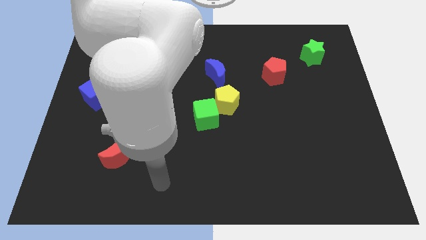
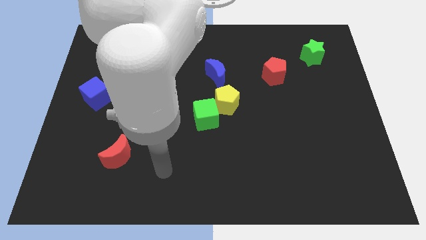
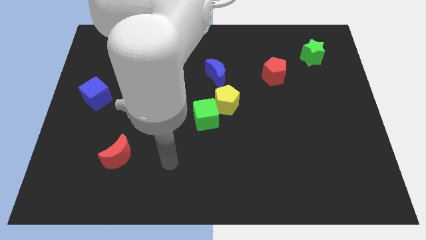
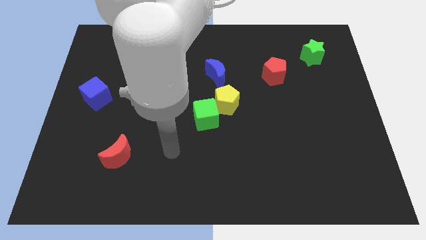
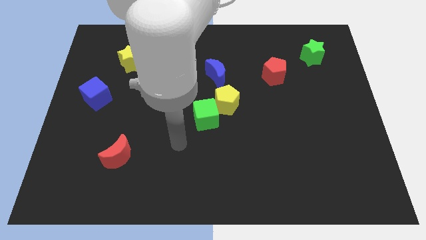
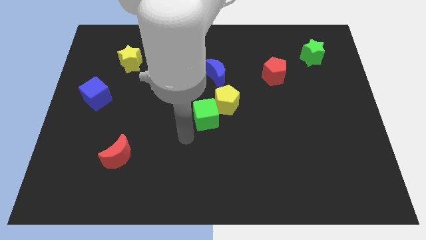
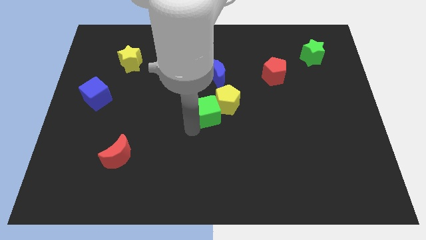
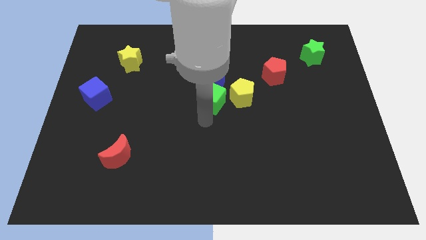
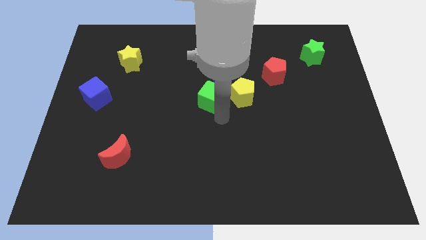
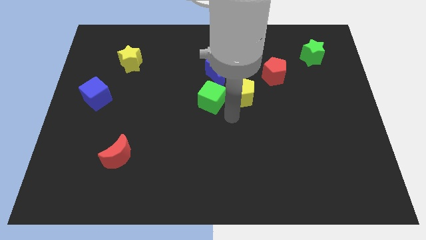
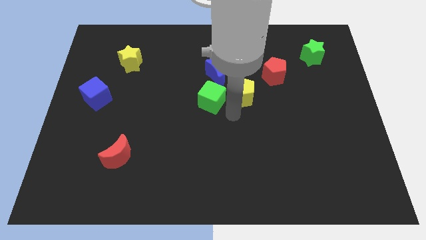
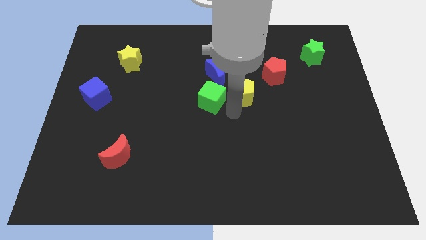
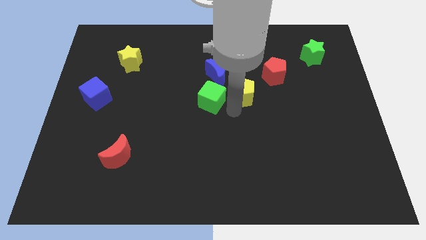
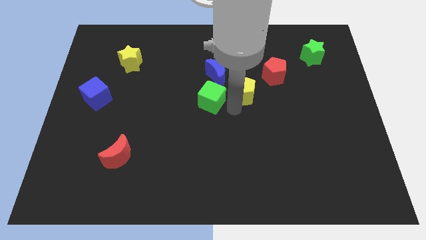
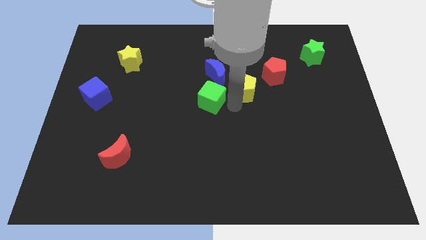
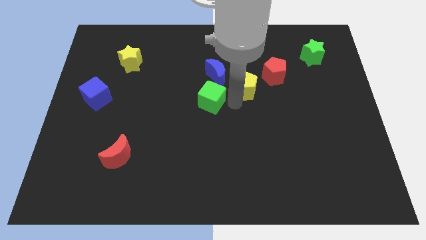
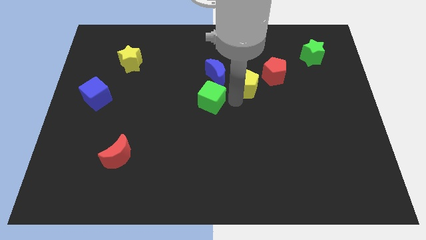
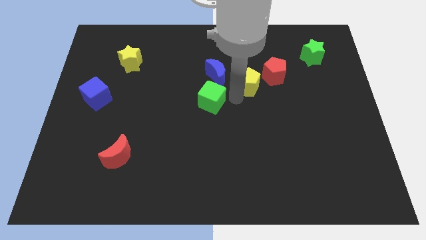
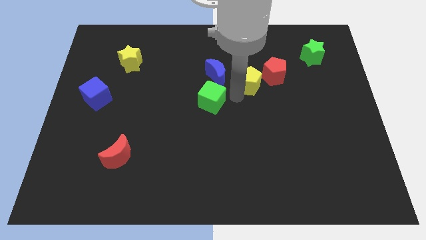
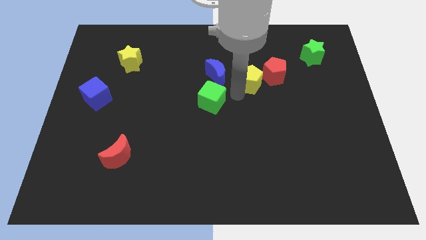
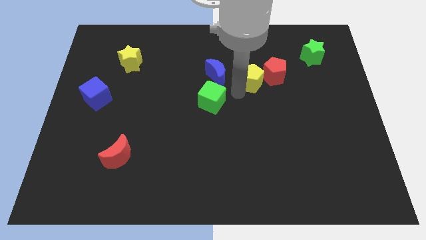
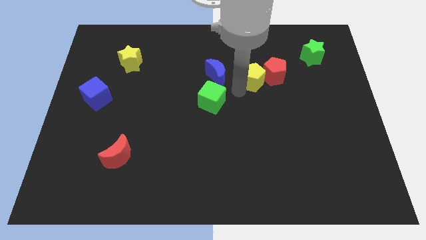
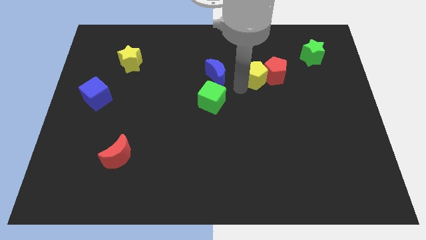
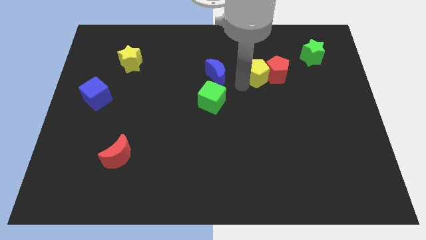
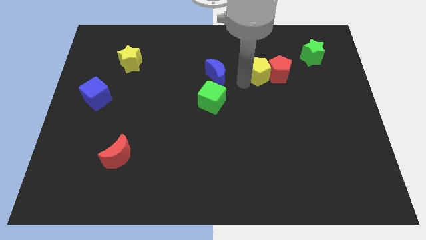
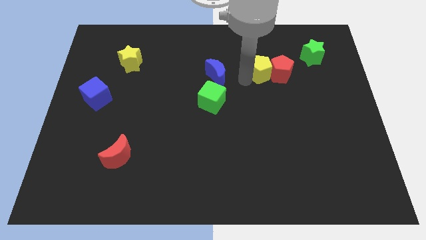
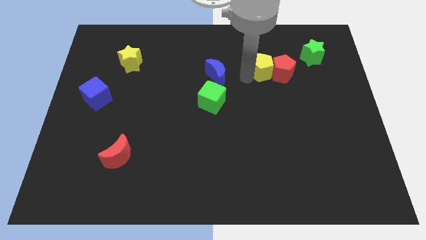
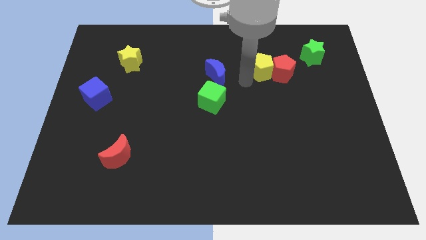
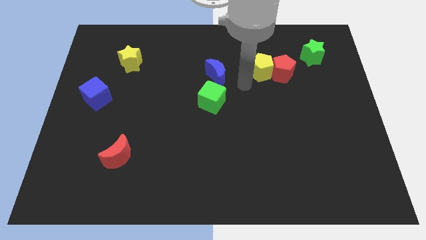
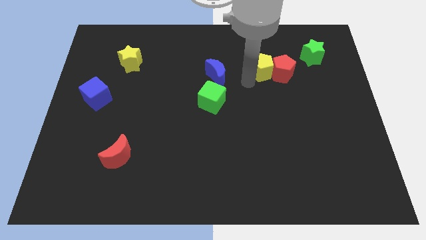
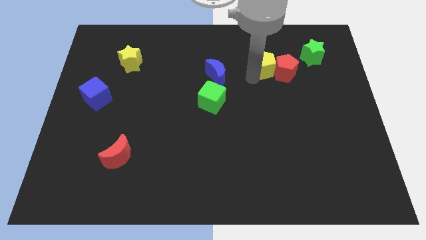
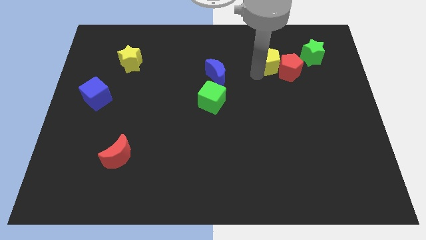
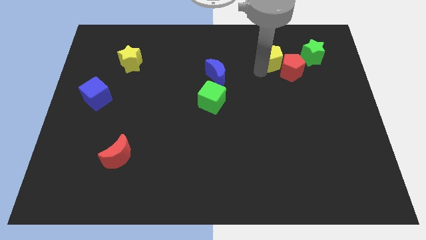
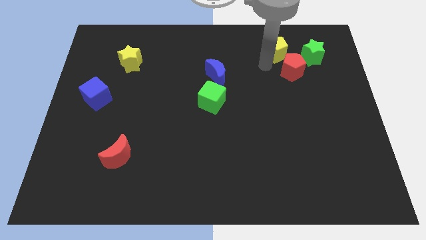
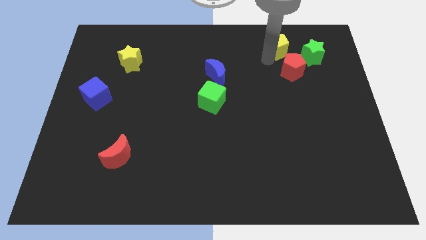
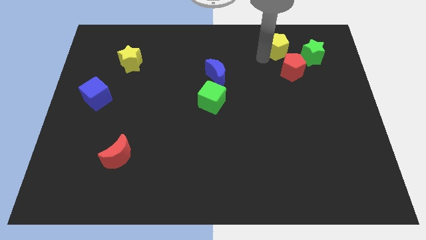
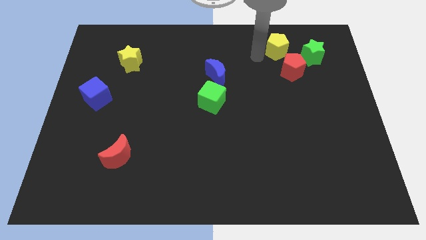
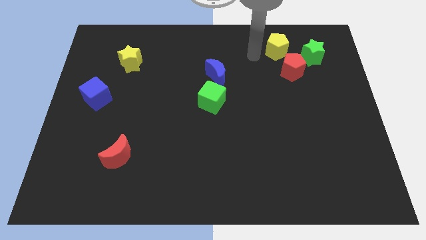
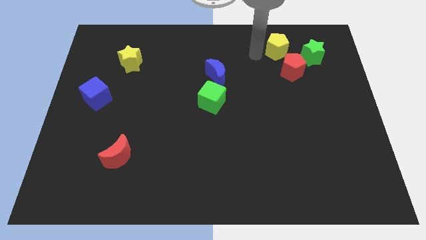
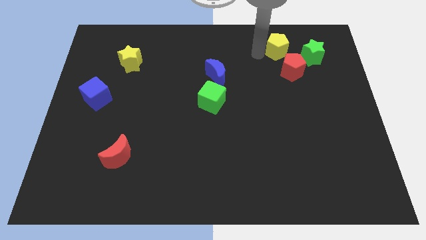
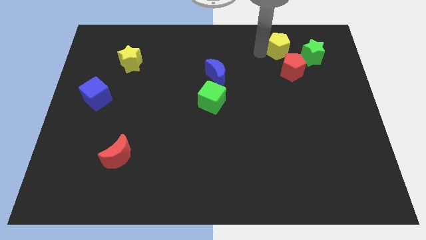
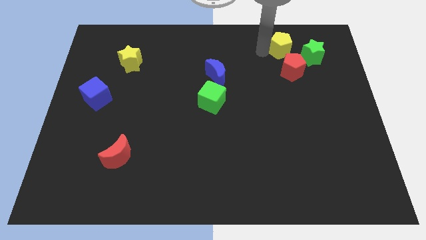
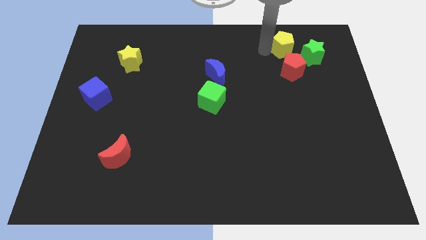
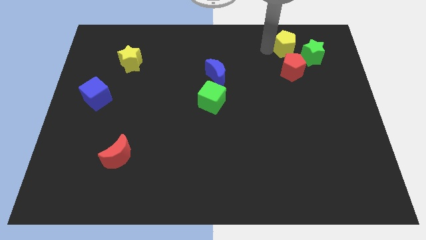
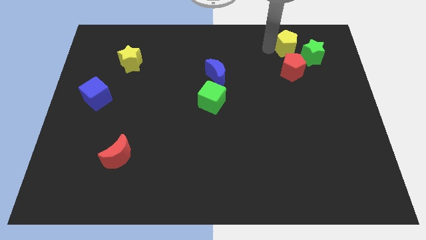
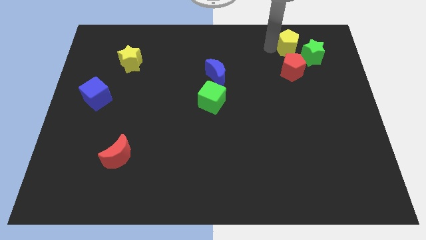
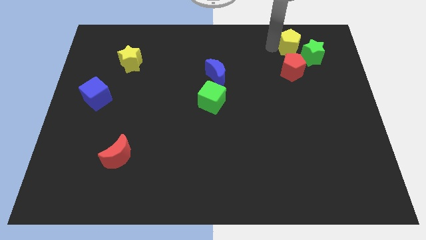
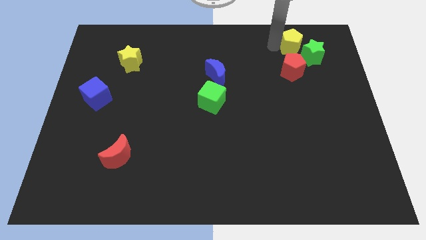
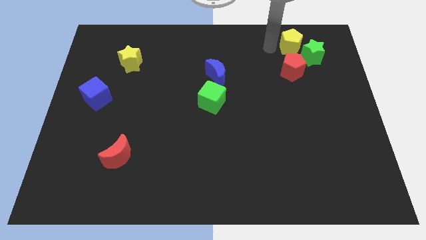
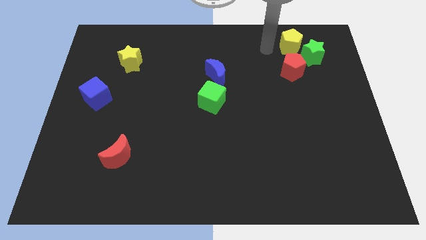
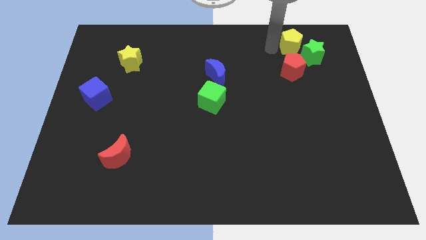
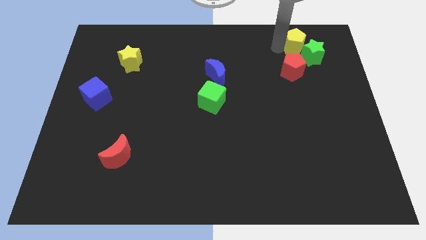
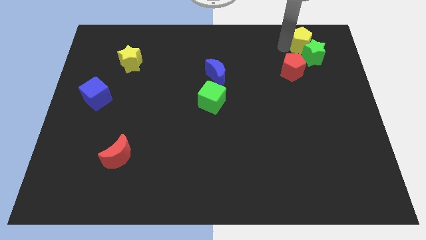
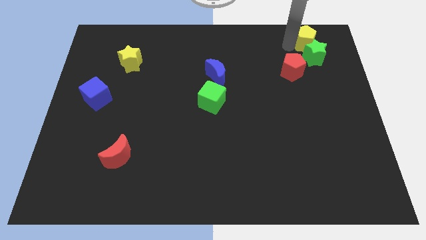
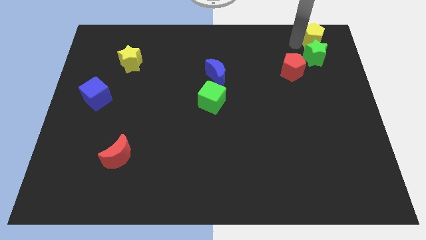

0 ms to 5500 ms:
slide the yellow pentagon to the top right
